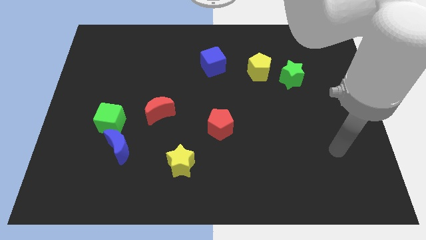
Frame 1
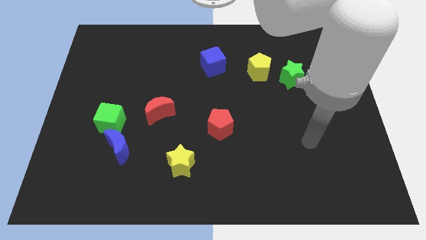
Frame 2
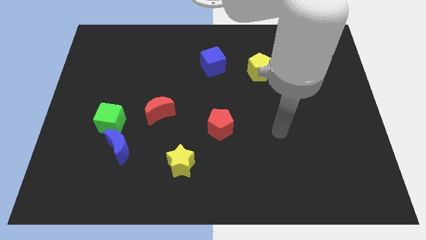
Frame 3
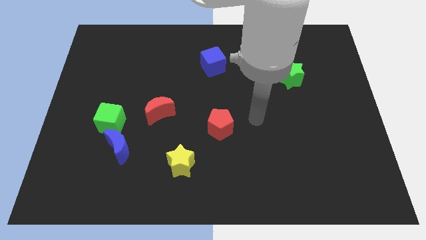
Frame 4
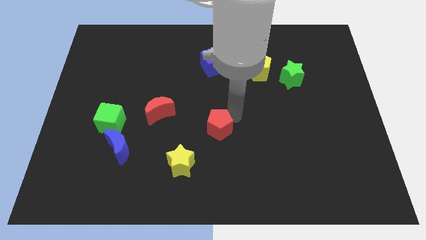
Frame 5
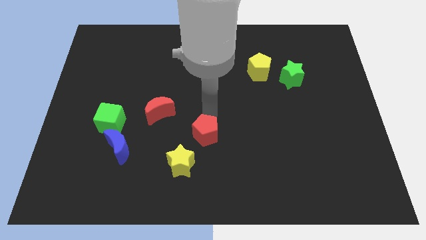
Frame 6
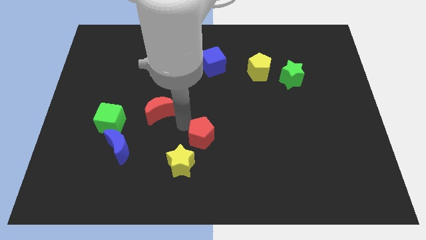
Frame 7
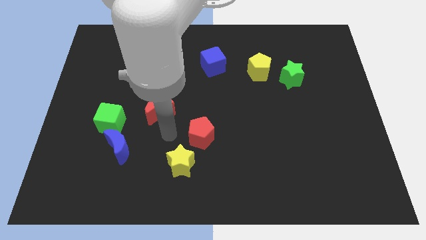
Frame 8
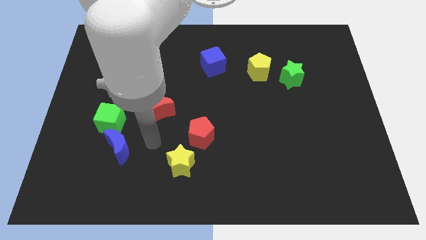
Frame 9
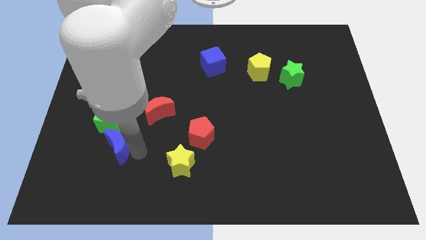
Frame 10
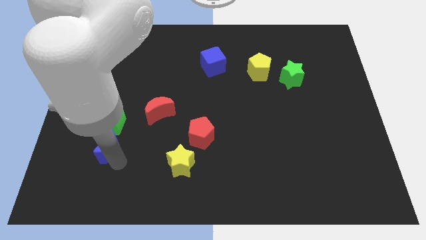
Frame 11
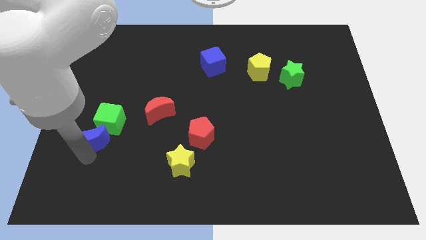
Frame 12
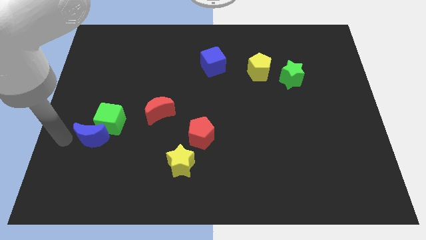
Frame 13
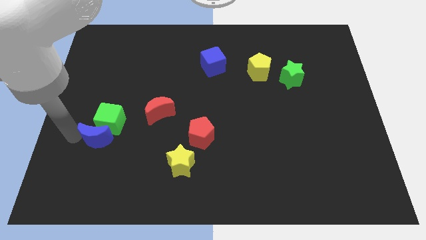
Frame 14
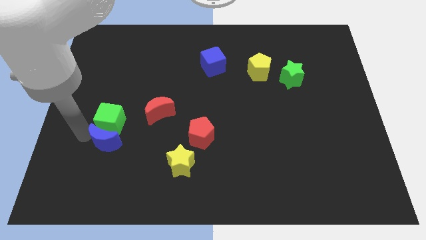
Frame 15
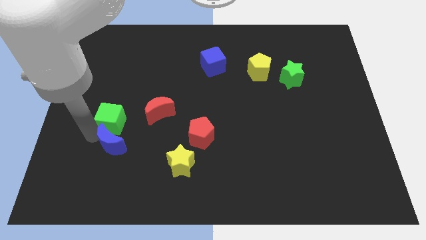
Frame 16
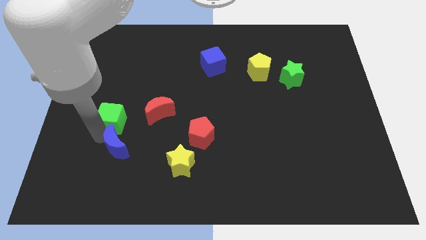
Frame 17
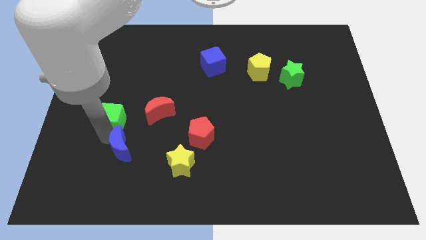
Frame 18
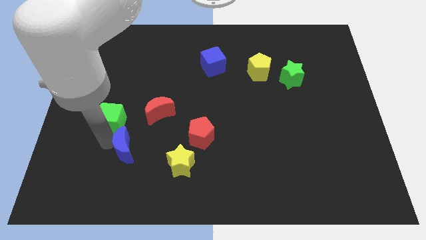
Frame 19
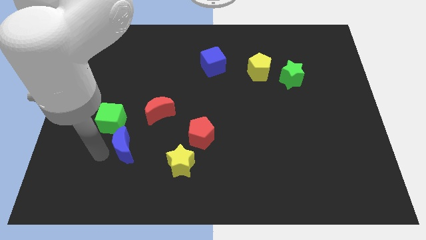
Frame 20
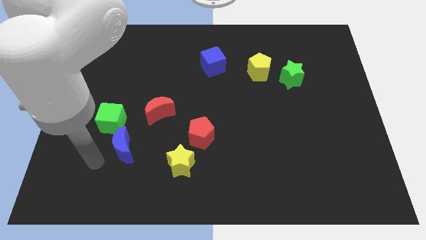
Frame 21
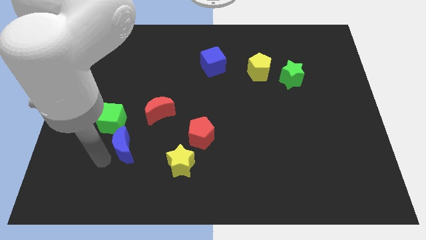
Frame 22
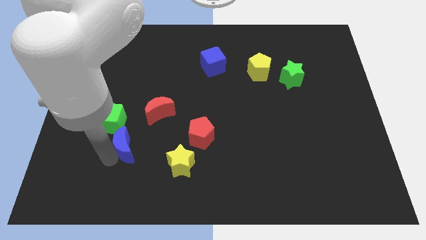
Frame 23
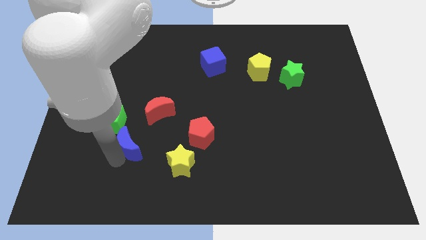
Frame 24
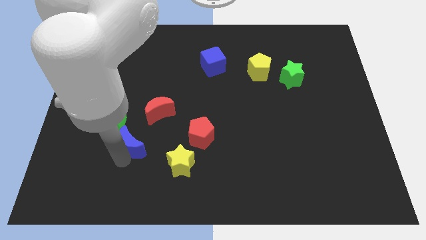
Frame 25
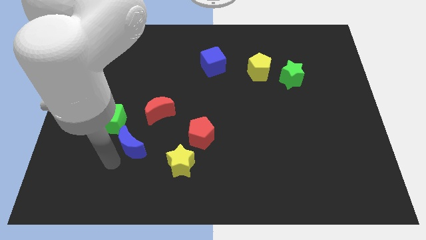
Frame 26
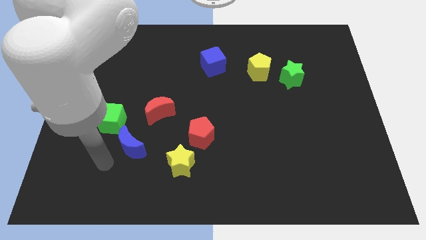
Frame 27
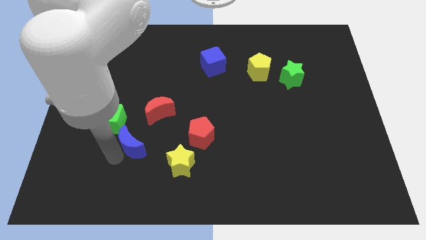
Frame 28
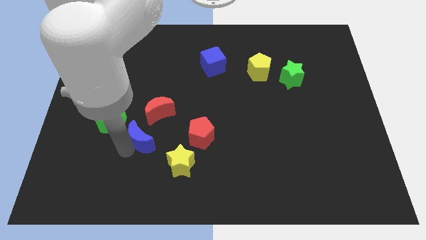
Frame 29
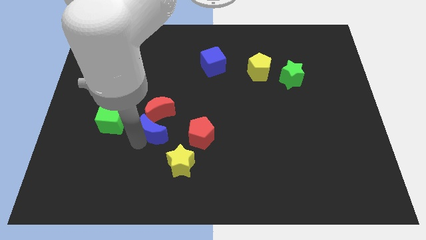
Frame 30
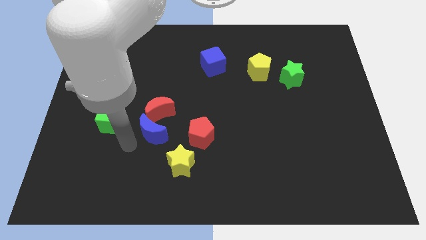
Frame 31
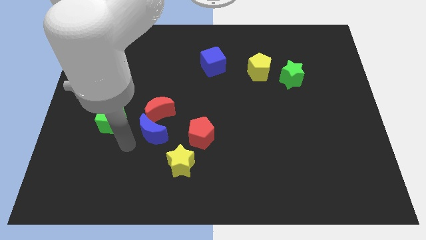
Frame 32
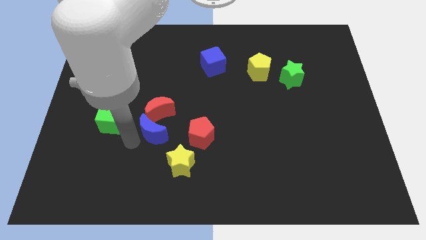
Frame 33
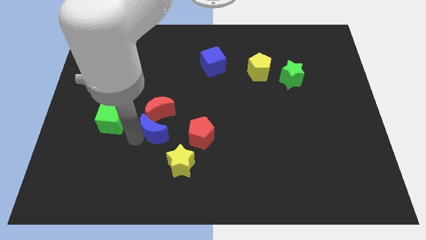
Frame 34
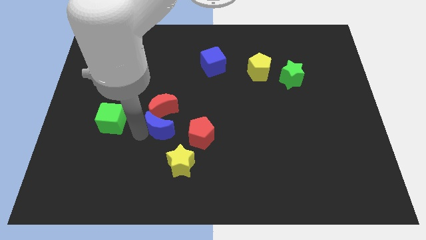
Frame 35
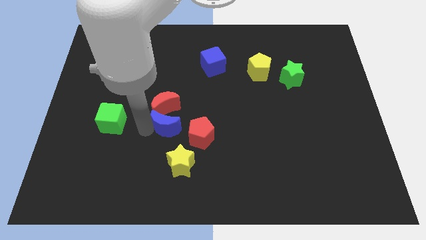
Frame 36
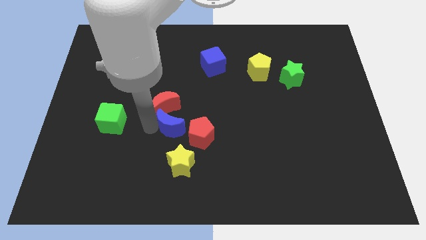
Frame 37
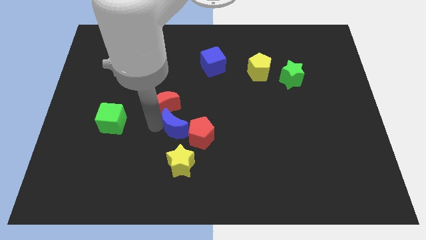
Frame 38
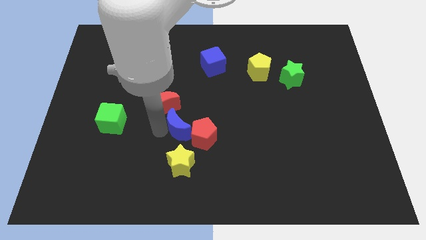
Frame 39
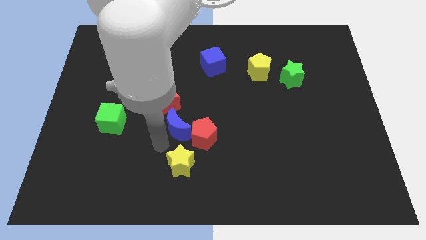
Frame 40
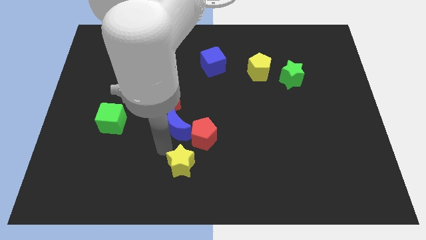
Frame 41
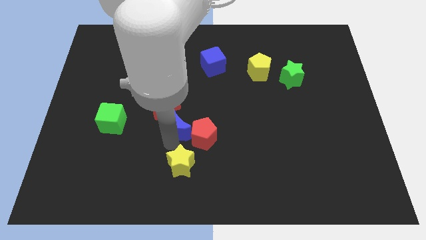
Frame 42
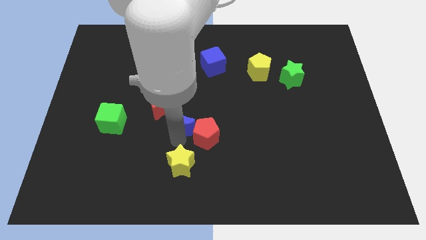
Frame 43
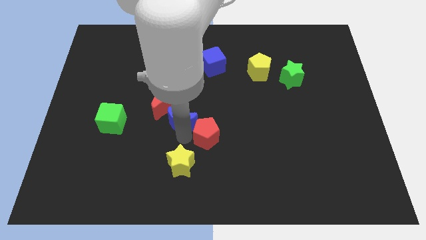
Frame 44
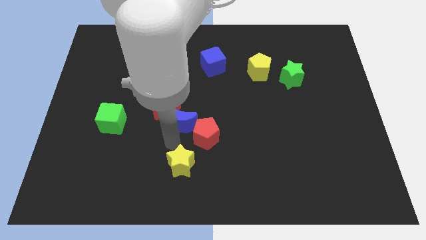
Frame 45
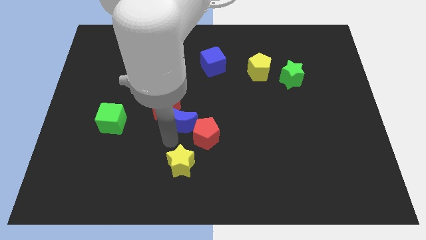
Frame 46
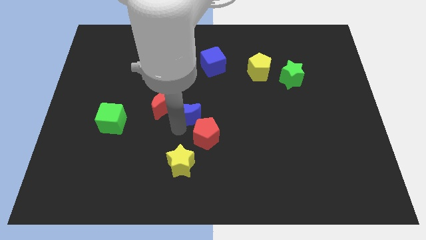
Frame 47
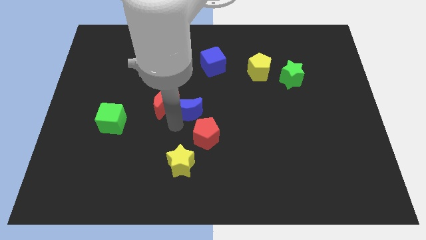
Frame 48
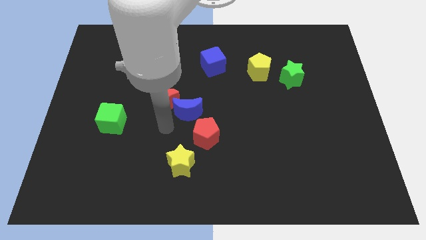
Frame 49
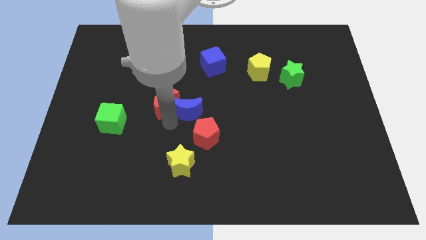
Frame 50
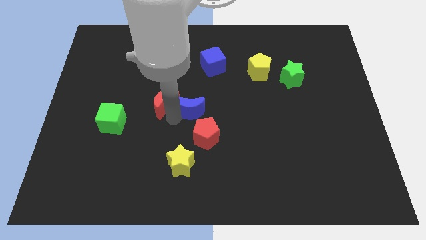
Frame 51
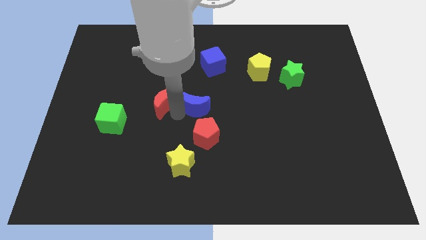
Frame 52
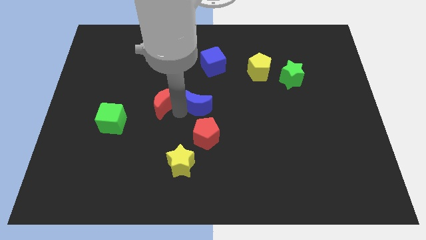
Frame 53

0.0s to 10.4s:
move the blue moon to the bottom of the blue cube
